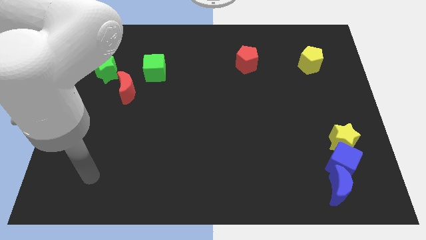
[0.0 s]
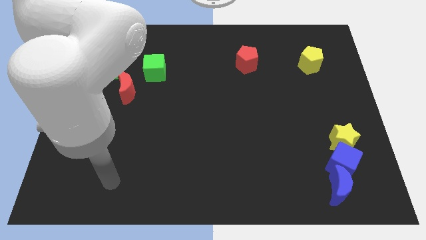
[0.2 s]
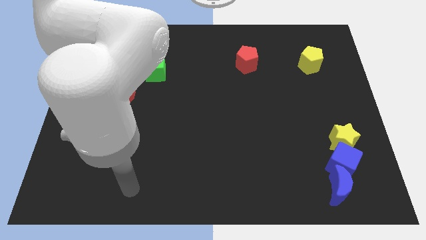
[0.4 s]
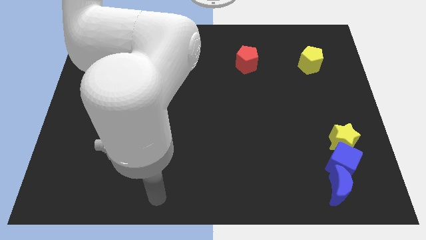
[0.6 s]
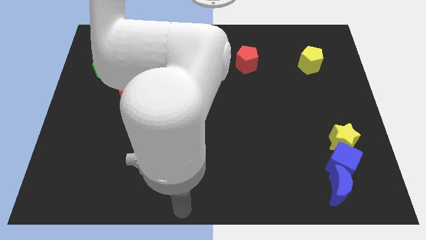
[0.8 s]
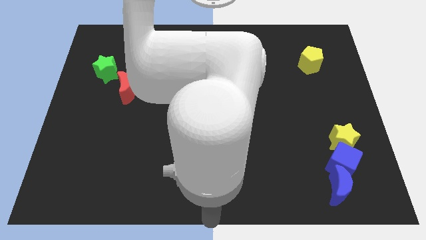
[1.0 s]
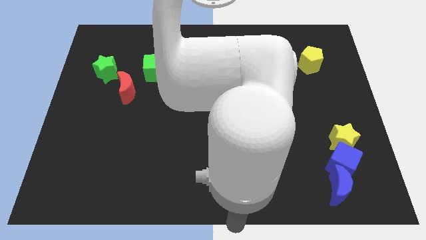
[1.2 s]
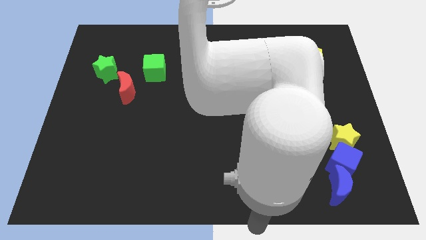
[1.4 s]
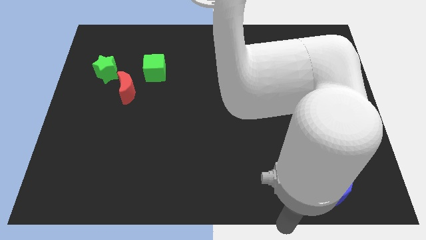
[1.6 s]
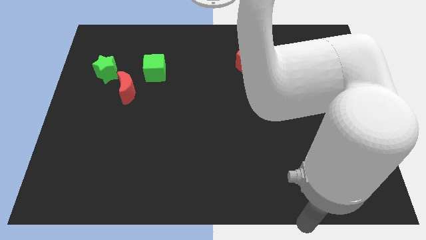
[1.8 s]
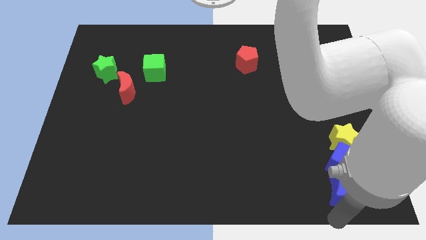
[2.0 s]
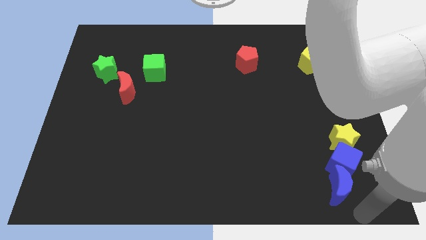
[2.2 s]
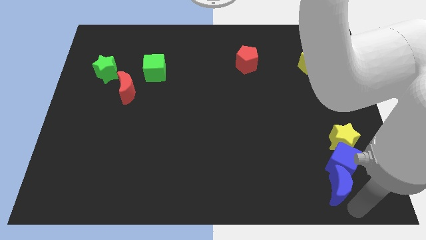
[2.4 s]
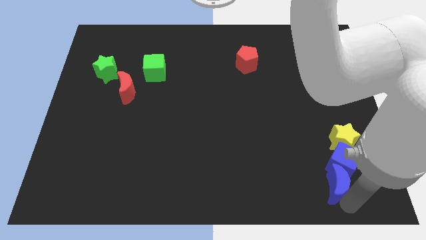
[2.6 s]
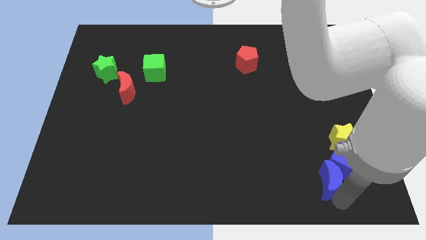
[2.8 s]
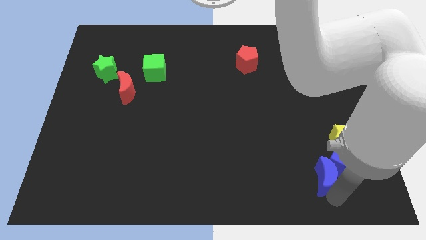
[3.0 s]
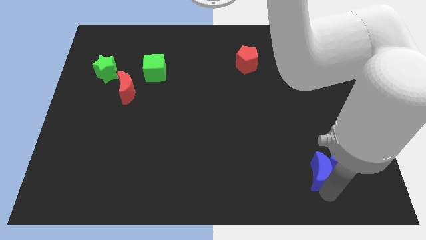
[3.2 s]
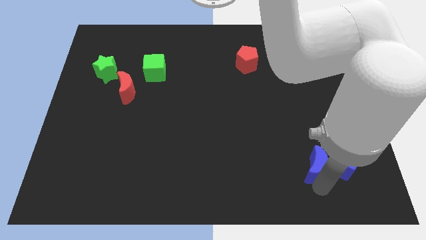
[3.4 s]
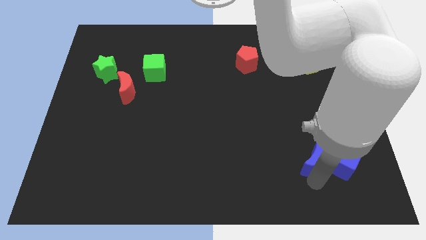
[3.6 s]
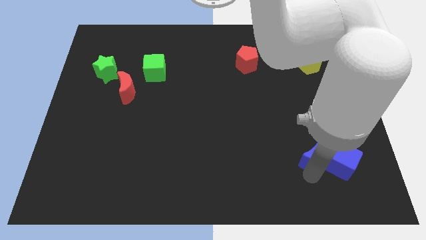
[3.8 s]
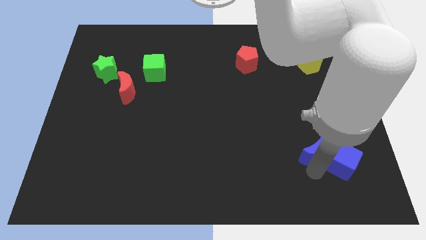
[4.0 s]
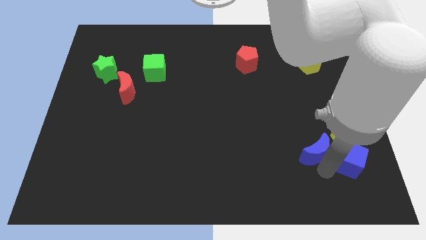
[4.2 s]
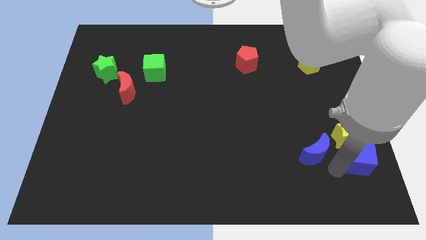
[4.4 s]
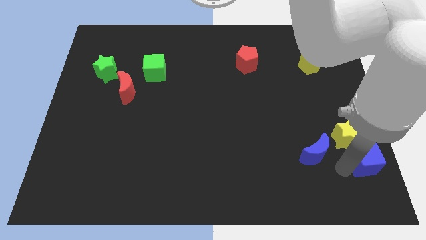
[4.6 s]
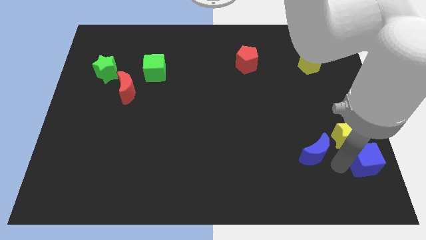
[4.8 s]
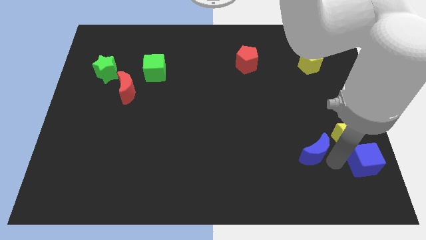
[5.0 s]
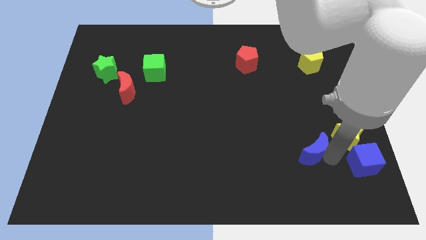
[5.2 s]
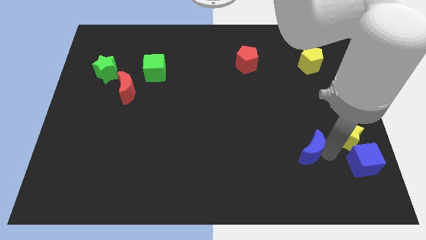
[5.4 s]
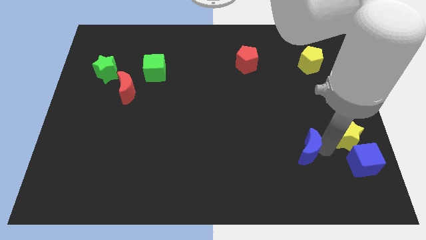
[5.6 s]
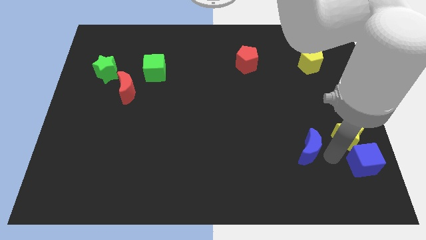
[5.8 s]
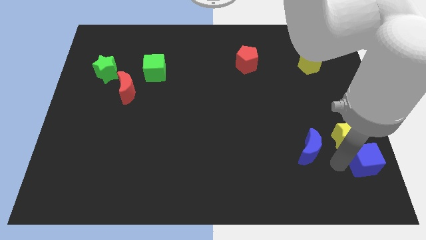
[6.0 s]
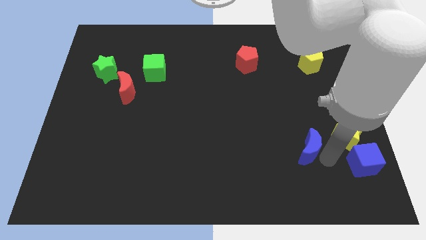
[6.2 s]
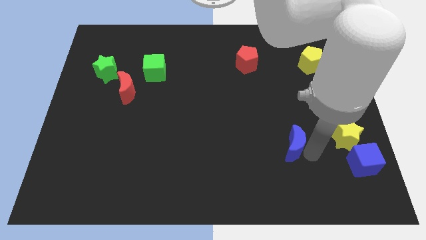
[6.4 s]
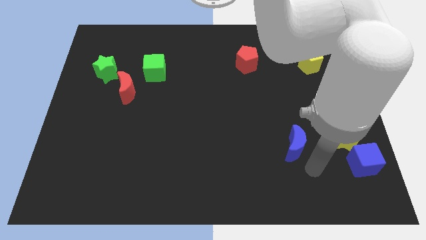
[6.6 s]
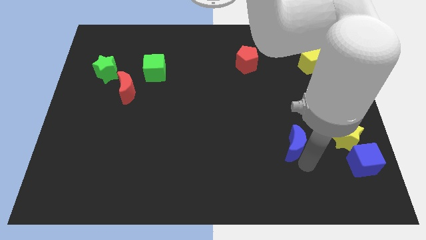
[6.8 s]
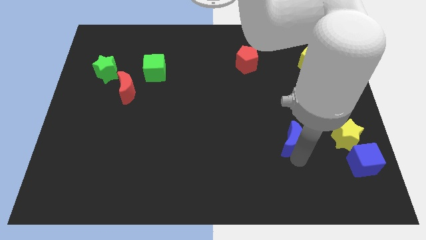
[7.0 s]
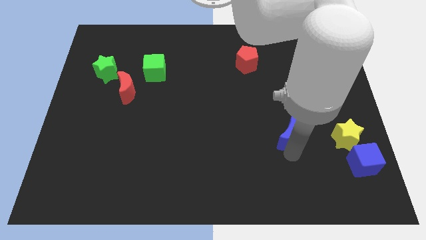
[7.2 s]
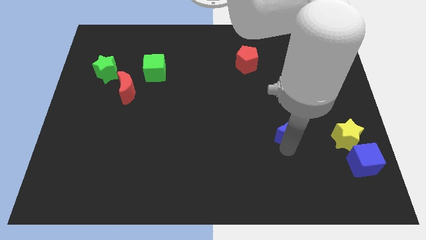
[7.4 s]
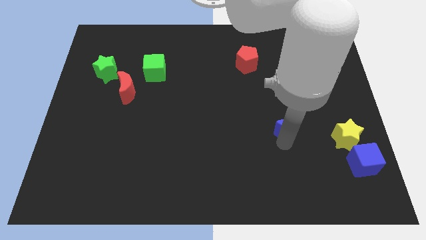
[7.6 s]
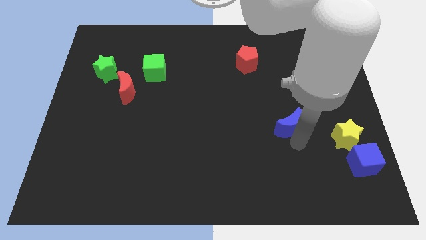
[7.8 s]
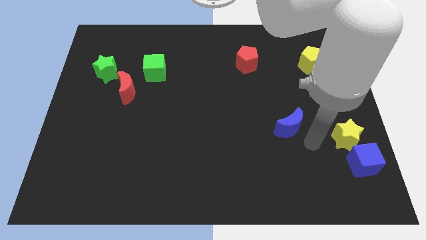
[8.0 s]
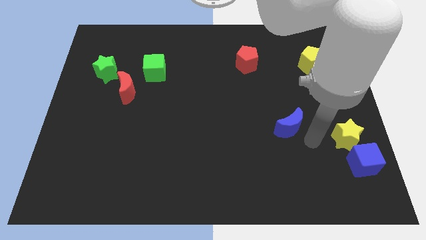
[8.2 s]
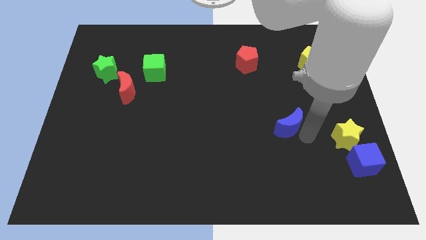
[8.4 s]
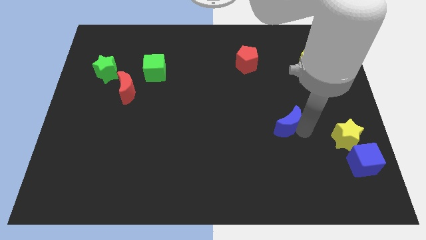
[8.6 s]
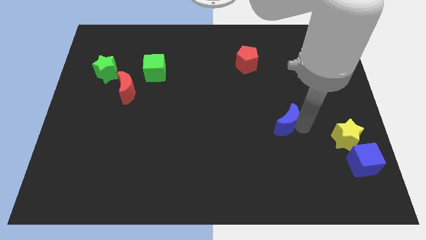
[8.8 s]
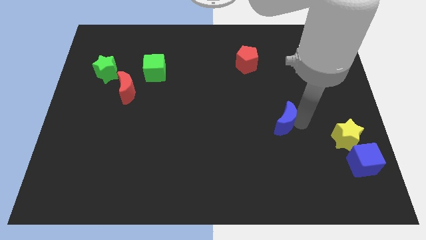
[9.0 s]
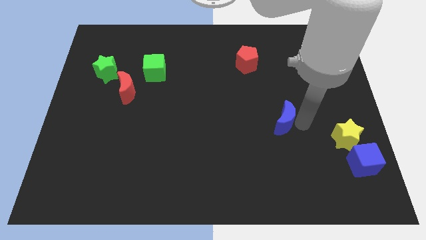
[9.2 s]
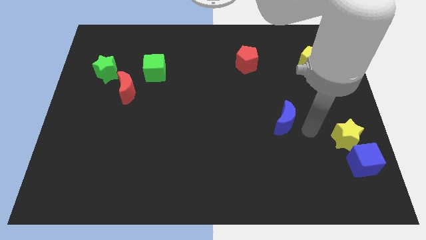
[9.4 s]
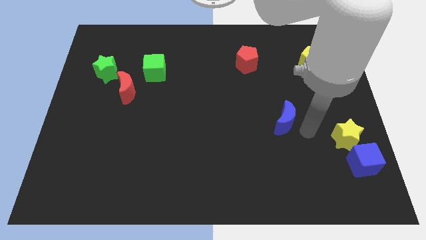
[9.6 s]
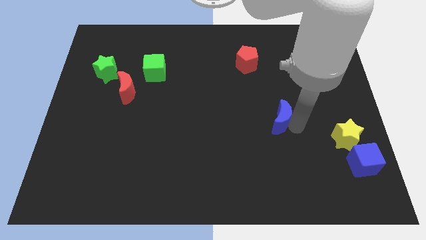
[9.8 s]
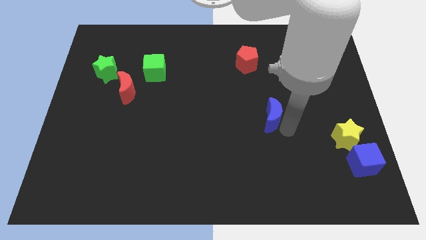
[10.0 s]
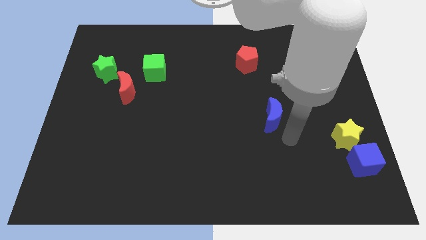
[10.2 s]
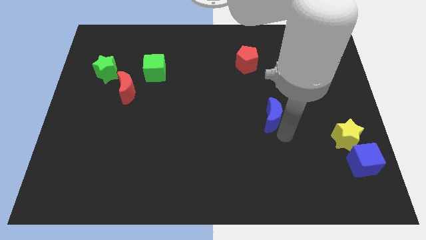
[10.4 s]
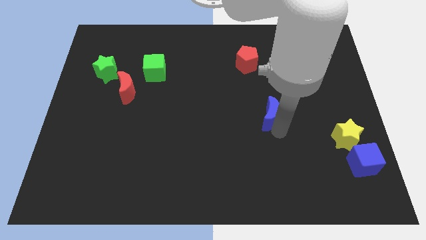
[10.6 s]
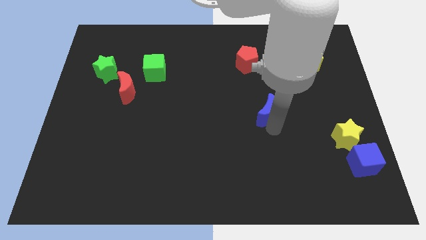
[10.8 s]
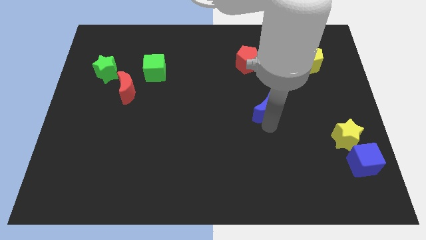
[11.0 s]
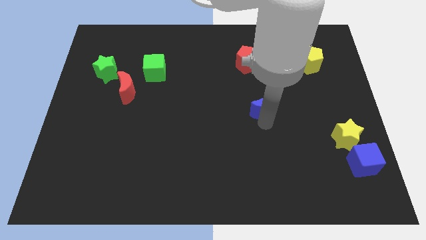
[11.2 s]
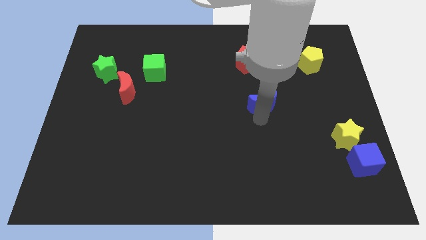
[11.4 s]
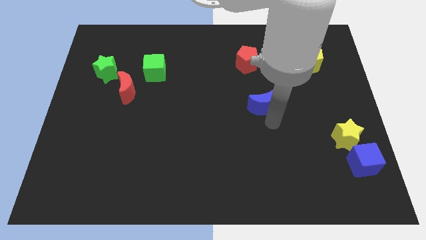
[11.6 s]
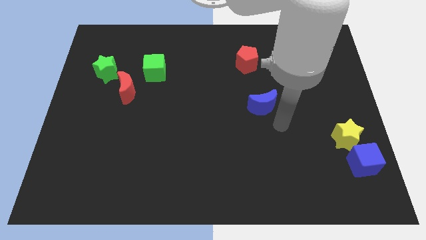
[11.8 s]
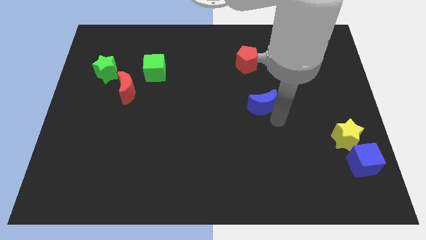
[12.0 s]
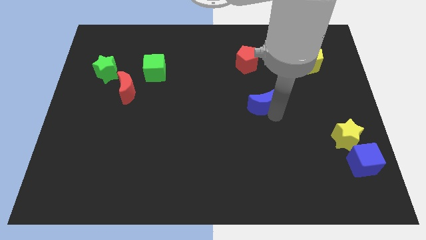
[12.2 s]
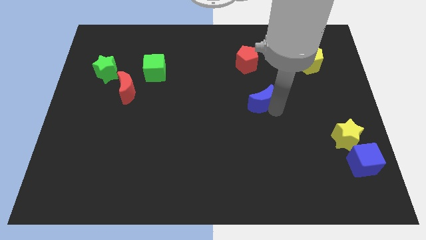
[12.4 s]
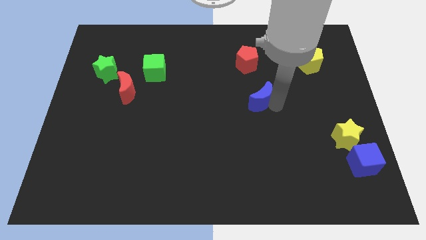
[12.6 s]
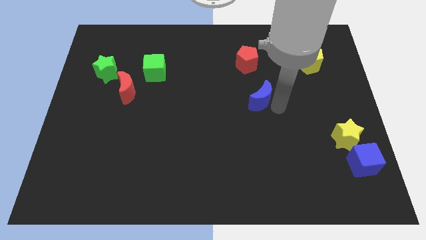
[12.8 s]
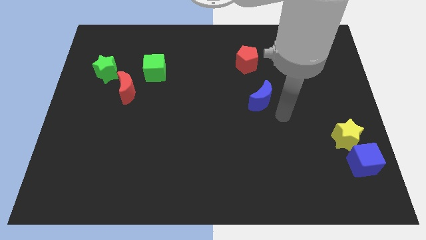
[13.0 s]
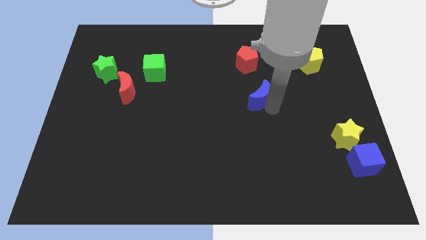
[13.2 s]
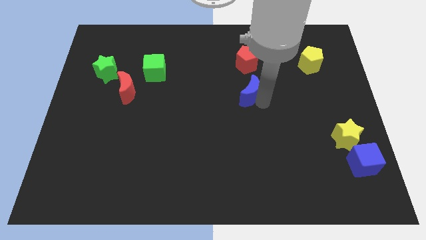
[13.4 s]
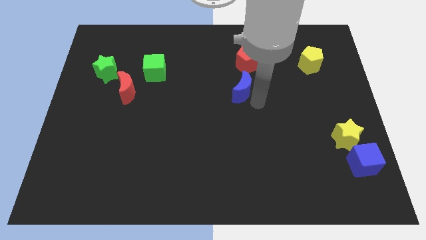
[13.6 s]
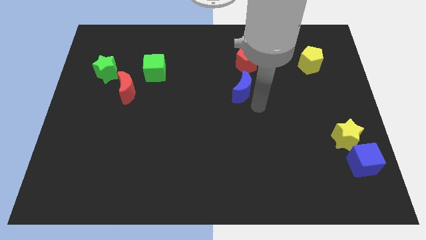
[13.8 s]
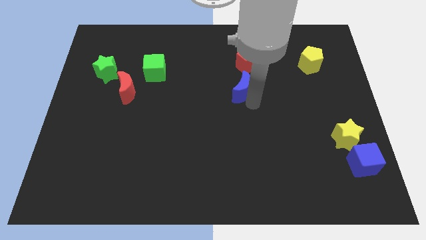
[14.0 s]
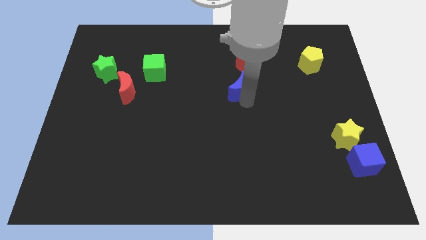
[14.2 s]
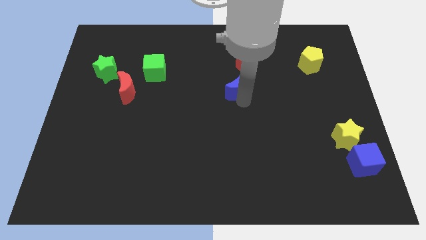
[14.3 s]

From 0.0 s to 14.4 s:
slide the blue moon to the bottom left of the red pentagon
